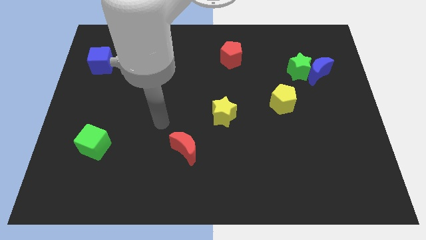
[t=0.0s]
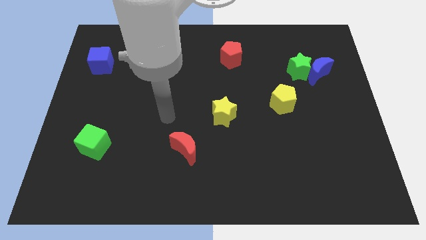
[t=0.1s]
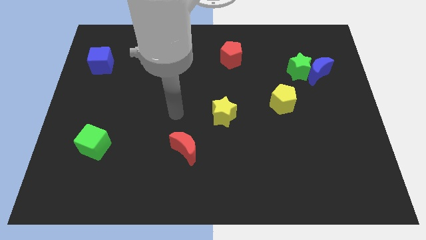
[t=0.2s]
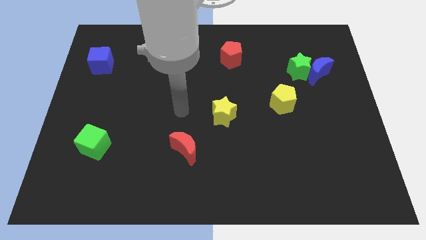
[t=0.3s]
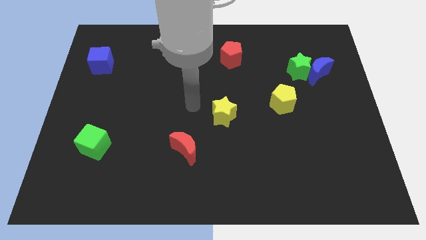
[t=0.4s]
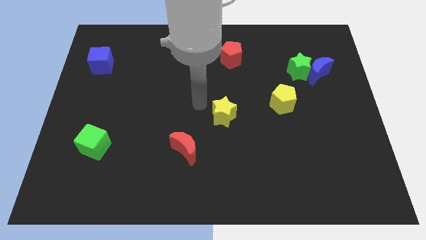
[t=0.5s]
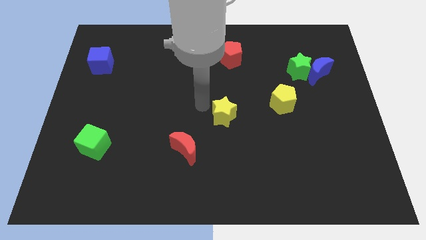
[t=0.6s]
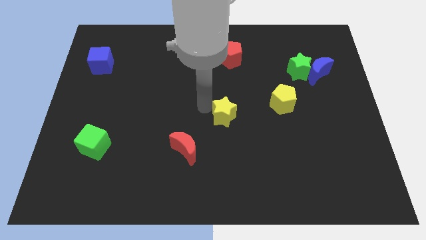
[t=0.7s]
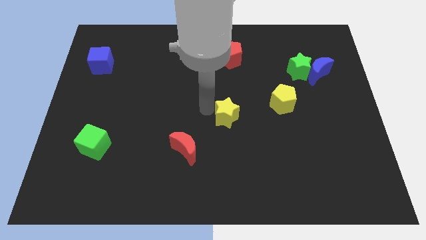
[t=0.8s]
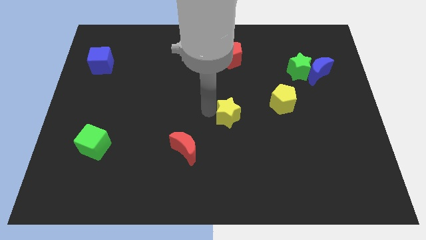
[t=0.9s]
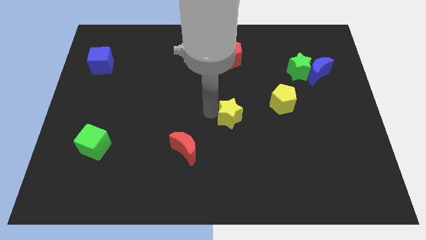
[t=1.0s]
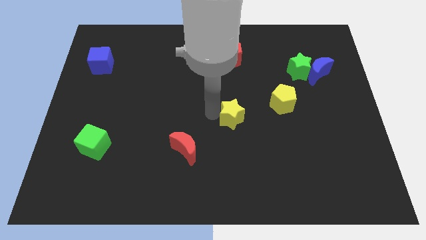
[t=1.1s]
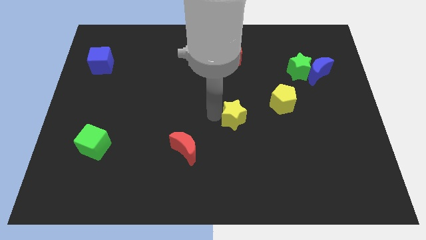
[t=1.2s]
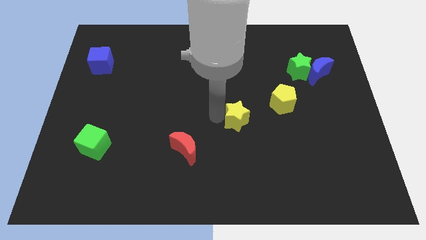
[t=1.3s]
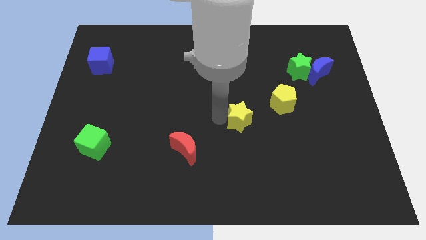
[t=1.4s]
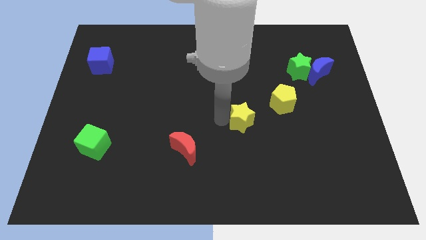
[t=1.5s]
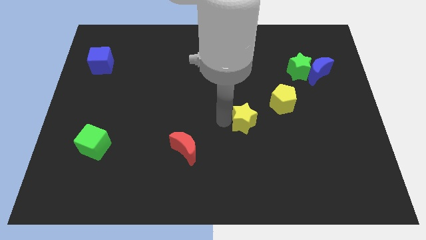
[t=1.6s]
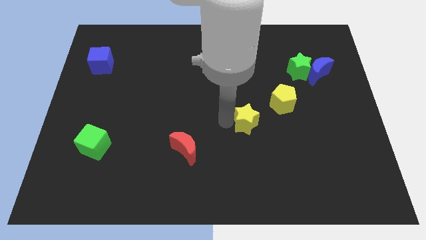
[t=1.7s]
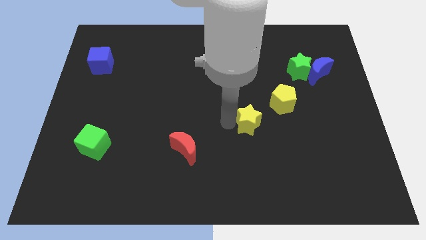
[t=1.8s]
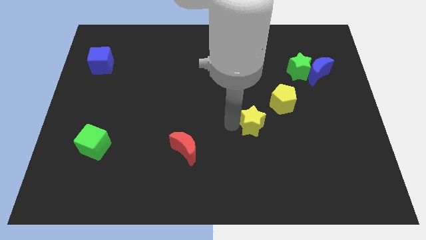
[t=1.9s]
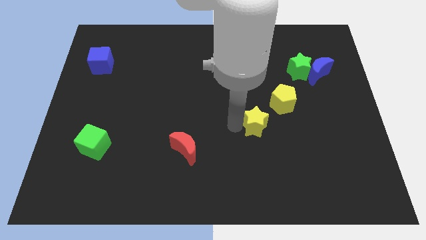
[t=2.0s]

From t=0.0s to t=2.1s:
move the yellow star down and right diagonally somewhat

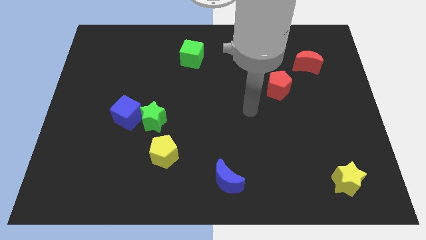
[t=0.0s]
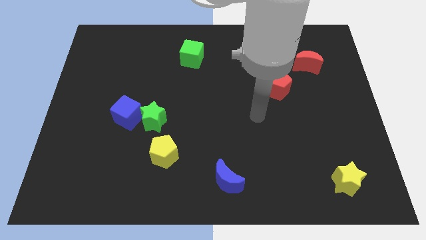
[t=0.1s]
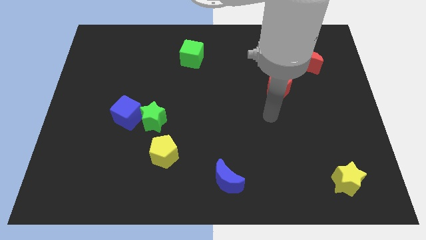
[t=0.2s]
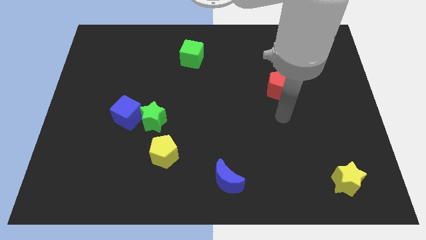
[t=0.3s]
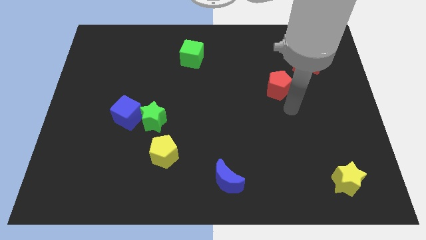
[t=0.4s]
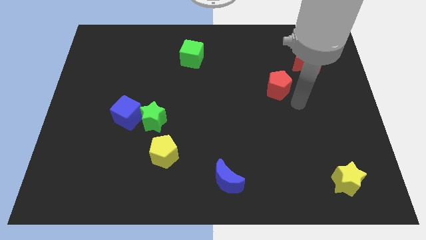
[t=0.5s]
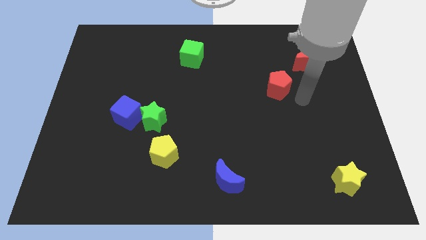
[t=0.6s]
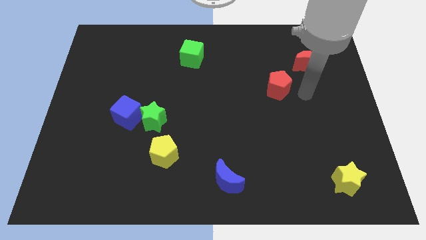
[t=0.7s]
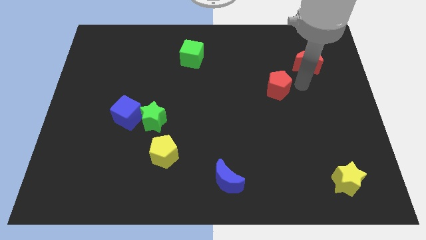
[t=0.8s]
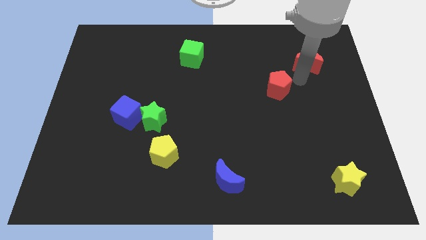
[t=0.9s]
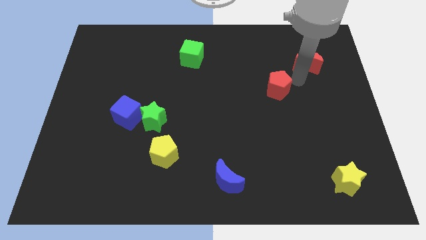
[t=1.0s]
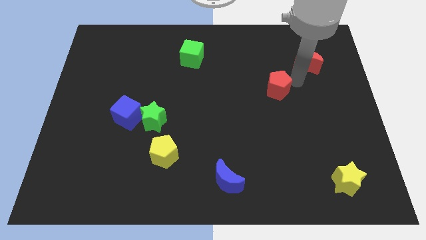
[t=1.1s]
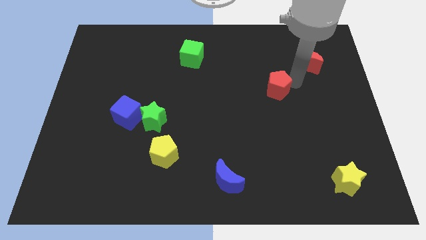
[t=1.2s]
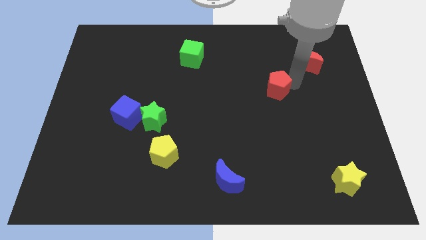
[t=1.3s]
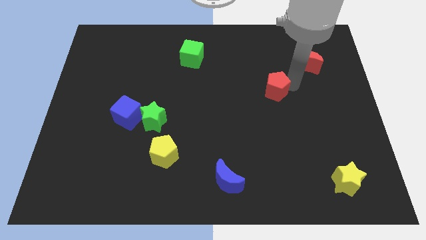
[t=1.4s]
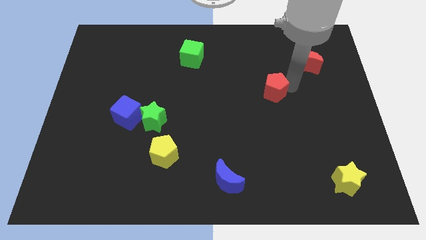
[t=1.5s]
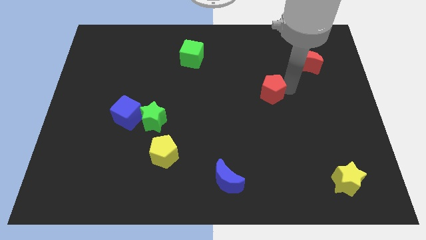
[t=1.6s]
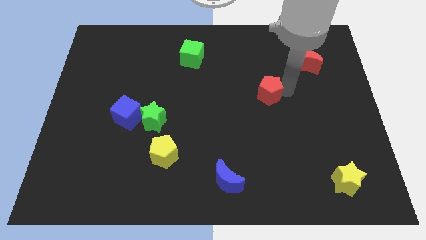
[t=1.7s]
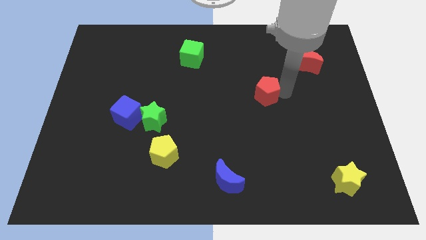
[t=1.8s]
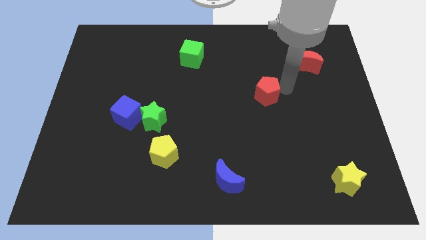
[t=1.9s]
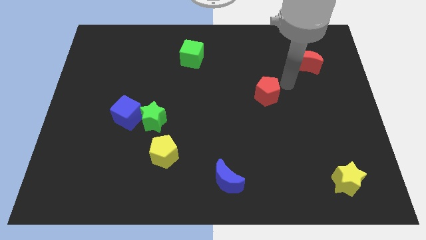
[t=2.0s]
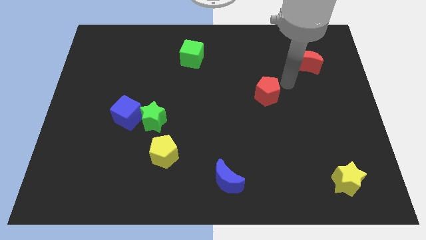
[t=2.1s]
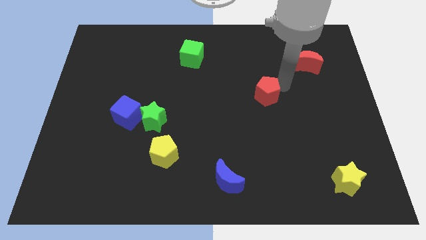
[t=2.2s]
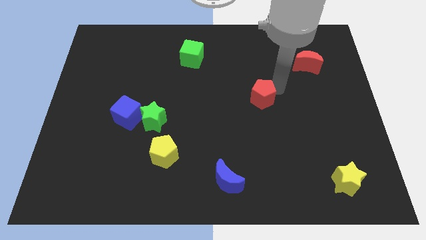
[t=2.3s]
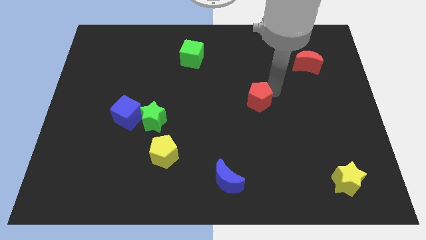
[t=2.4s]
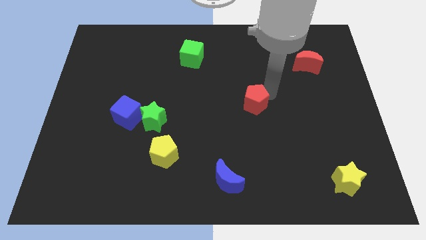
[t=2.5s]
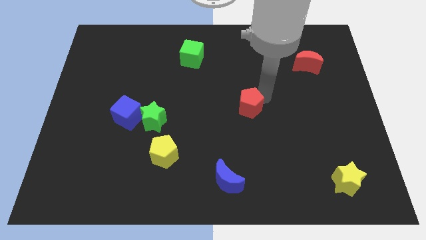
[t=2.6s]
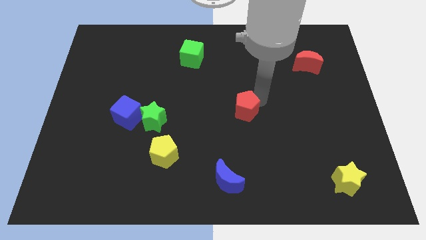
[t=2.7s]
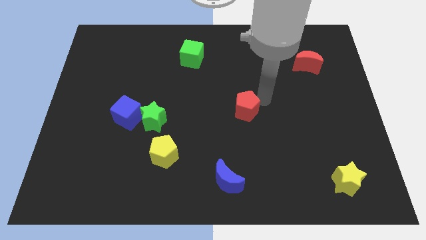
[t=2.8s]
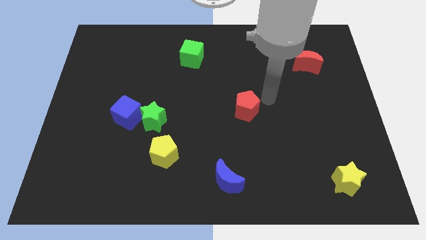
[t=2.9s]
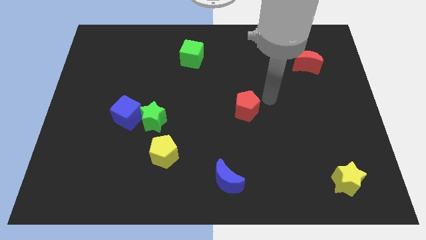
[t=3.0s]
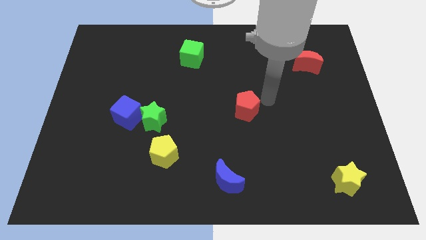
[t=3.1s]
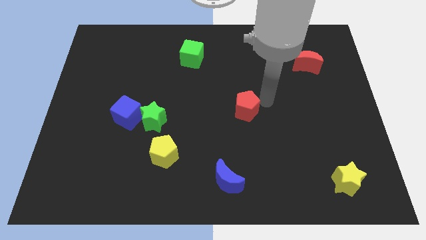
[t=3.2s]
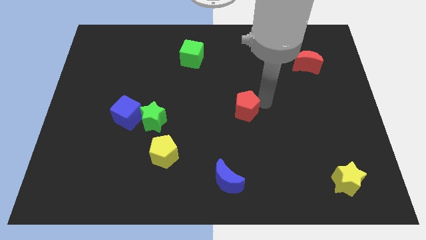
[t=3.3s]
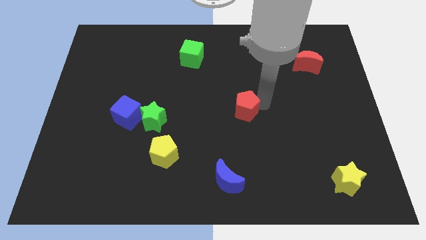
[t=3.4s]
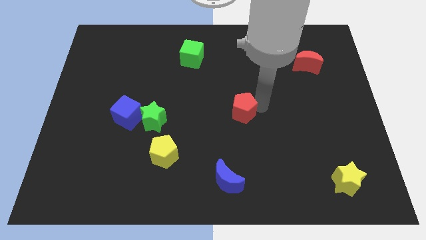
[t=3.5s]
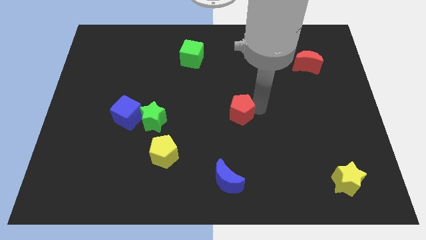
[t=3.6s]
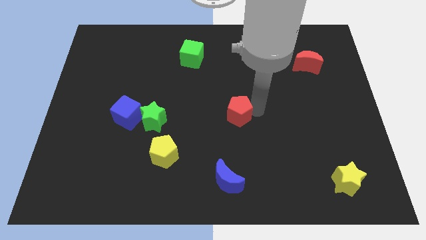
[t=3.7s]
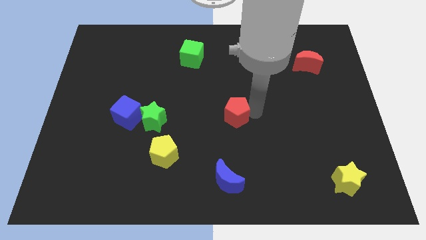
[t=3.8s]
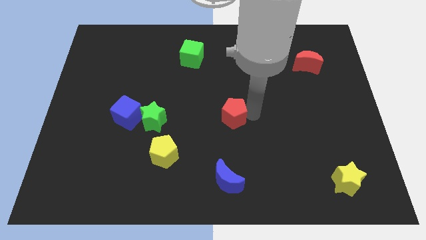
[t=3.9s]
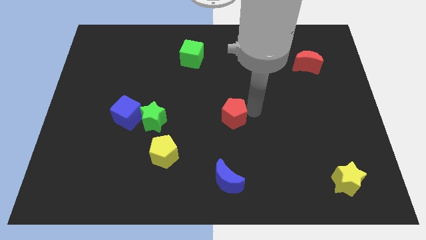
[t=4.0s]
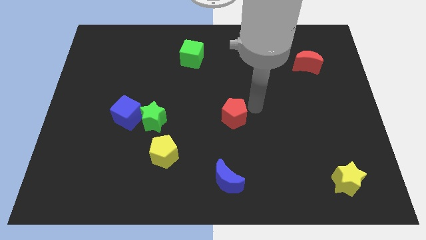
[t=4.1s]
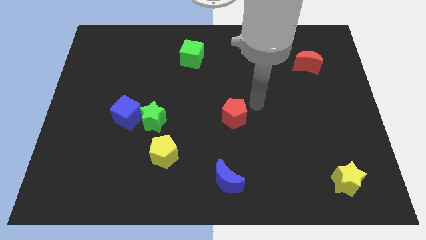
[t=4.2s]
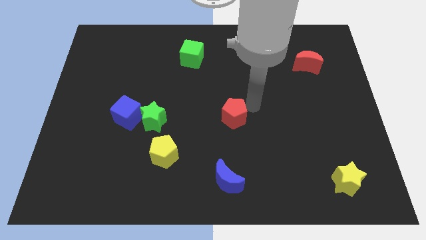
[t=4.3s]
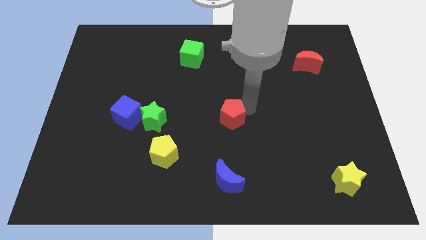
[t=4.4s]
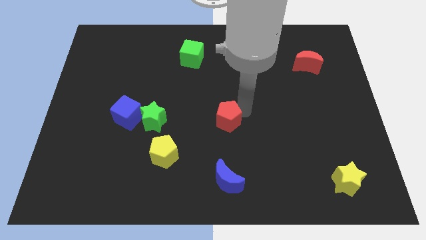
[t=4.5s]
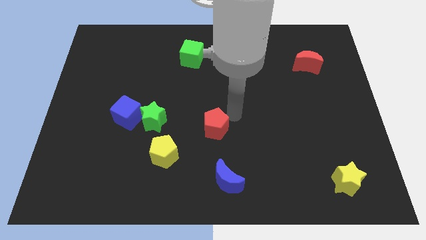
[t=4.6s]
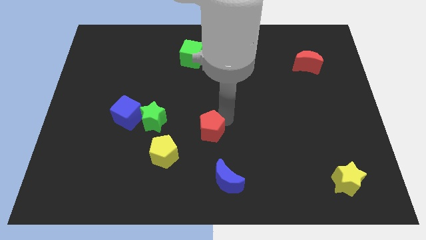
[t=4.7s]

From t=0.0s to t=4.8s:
push the red pentagon diagonally downwards and to the left

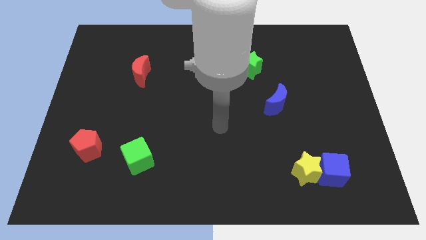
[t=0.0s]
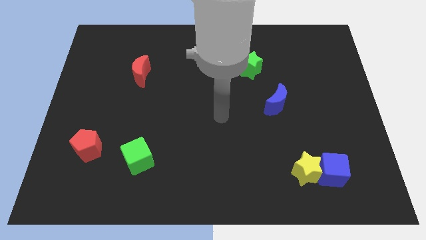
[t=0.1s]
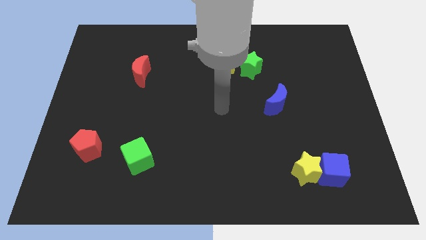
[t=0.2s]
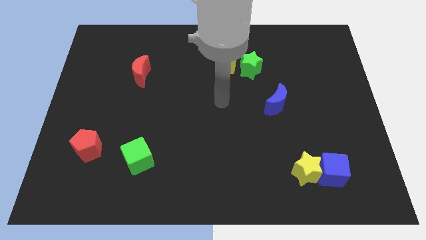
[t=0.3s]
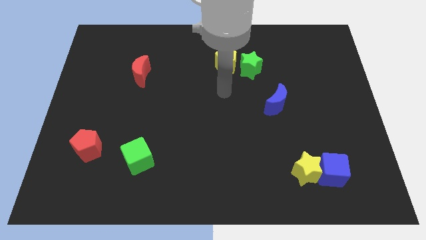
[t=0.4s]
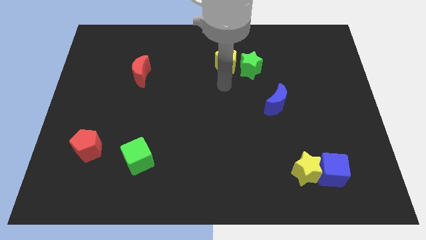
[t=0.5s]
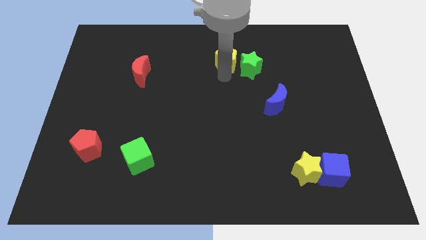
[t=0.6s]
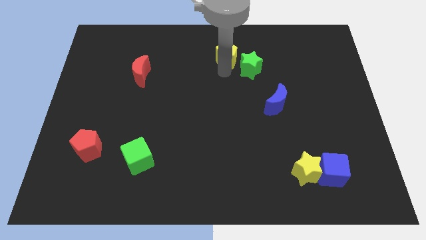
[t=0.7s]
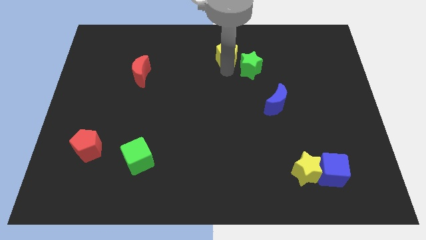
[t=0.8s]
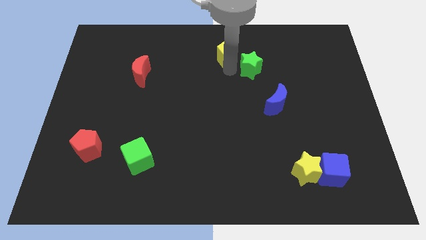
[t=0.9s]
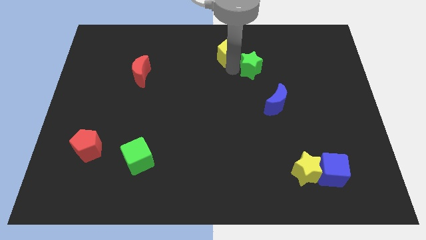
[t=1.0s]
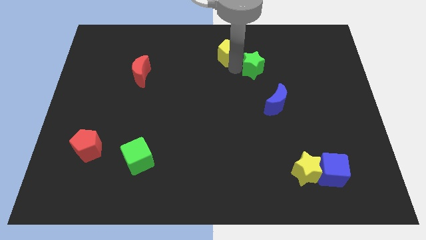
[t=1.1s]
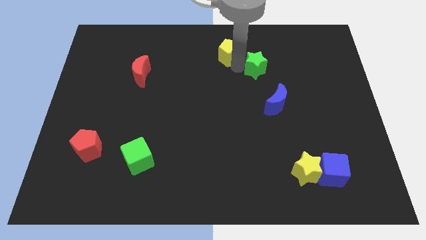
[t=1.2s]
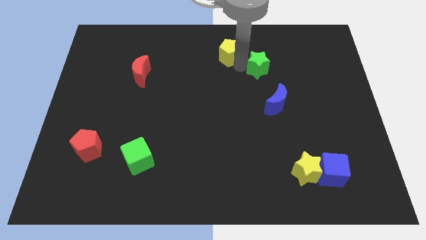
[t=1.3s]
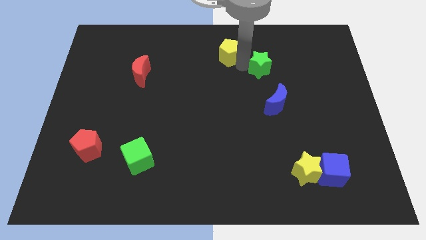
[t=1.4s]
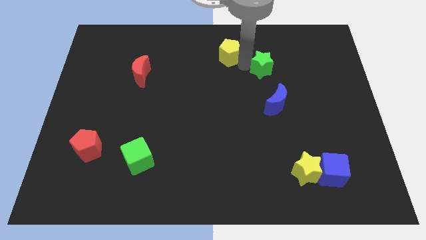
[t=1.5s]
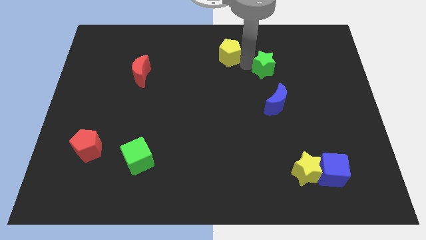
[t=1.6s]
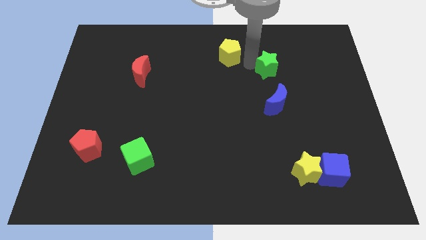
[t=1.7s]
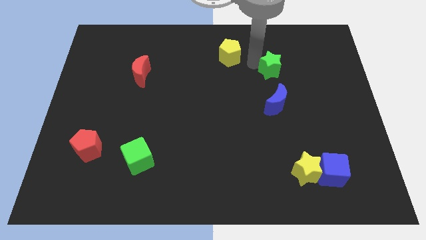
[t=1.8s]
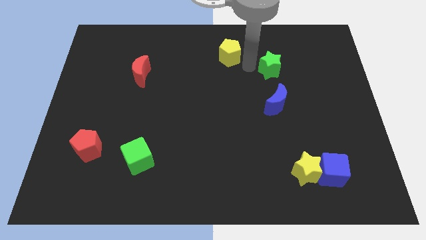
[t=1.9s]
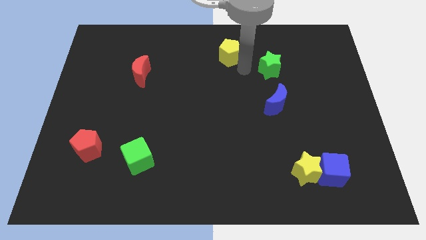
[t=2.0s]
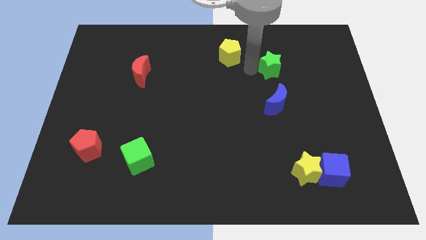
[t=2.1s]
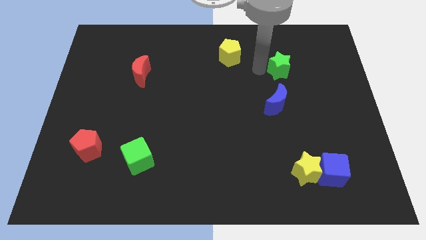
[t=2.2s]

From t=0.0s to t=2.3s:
slightly slide the green star right
